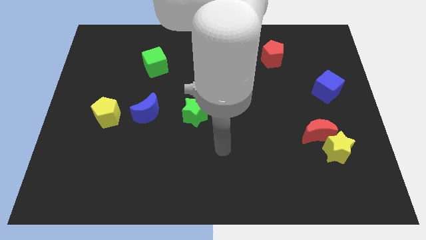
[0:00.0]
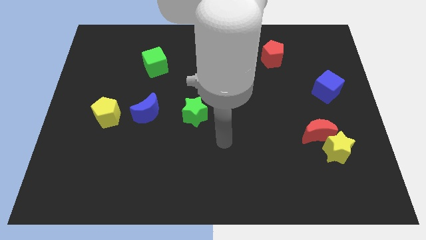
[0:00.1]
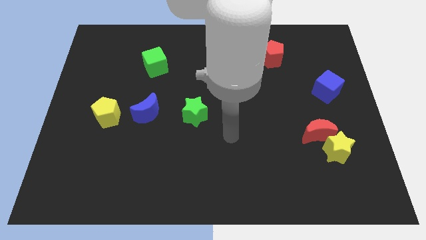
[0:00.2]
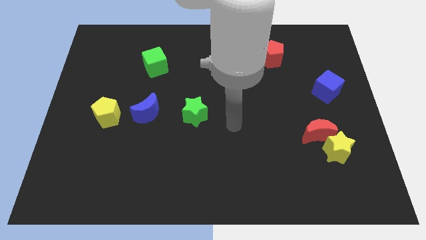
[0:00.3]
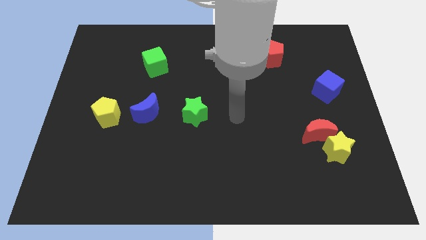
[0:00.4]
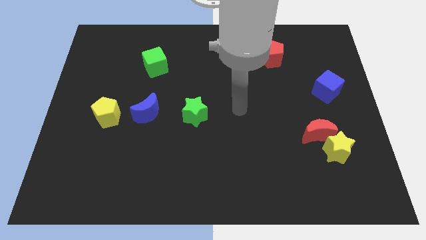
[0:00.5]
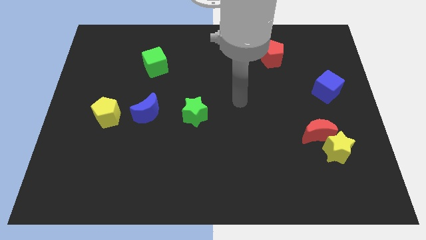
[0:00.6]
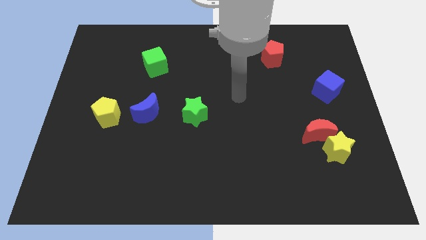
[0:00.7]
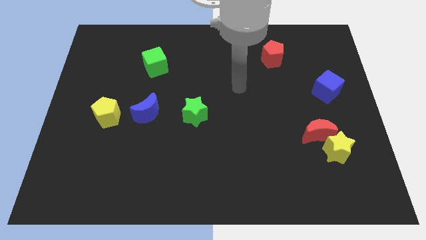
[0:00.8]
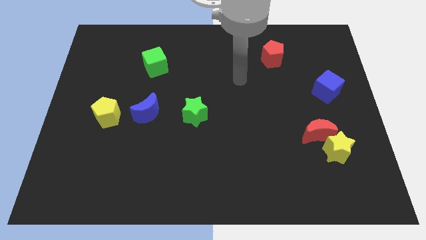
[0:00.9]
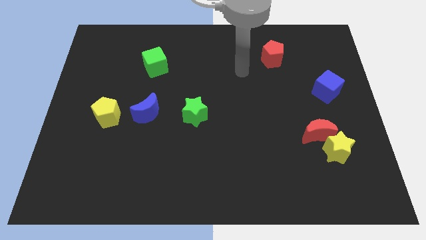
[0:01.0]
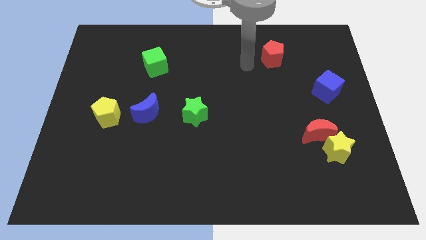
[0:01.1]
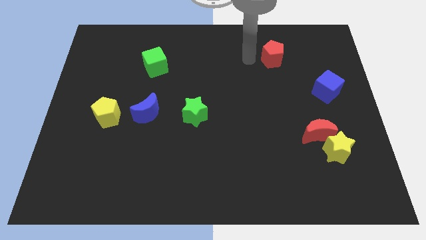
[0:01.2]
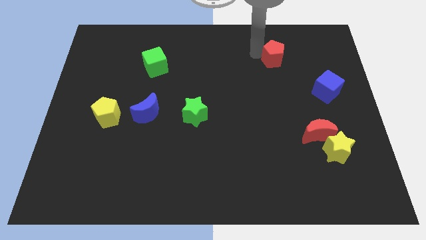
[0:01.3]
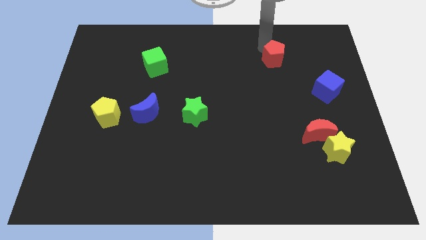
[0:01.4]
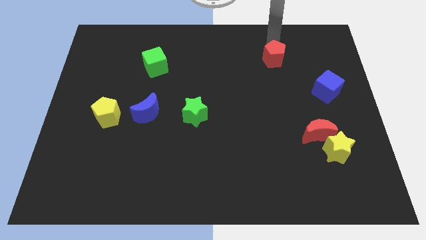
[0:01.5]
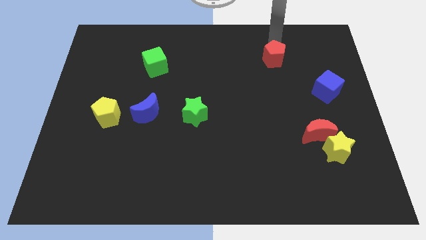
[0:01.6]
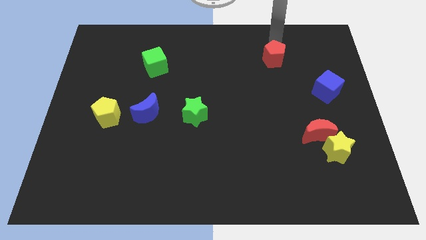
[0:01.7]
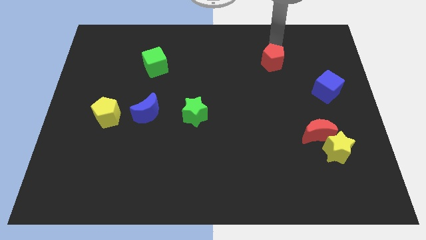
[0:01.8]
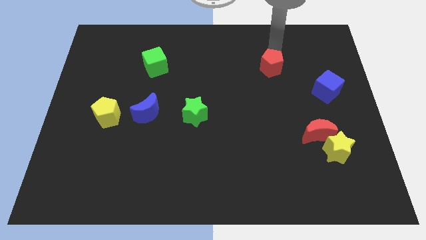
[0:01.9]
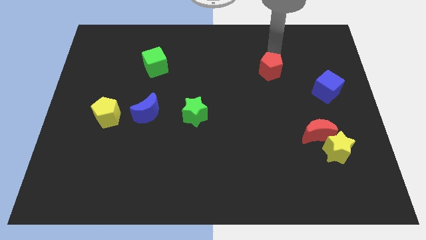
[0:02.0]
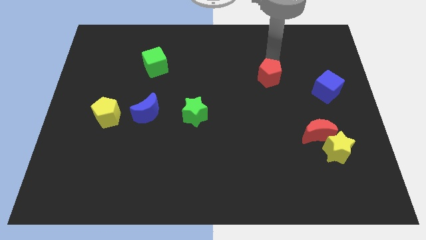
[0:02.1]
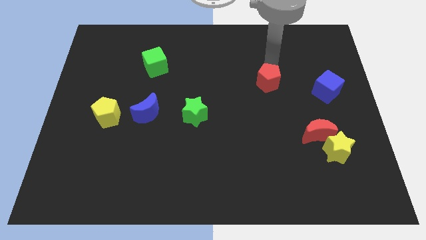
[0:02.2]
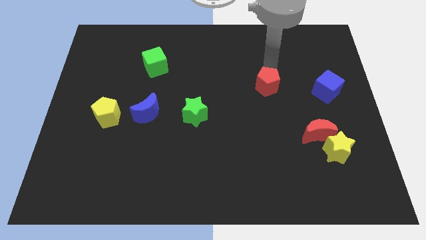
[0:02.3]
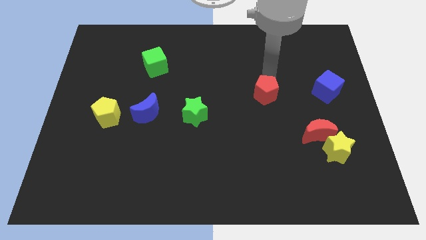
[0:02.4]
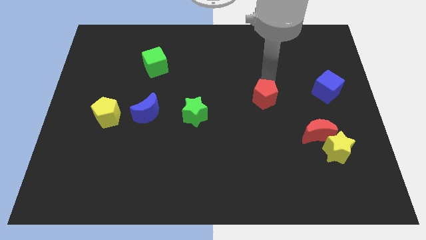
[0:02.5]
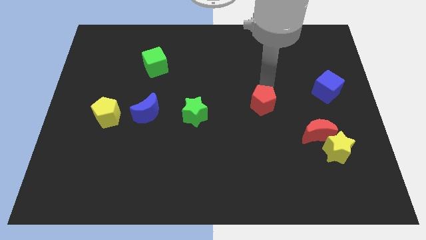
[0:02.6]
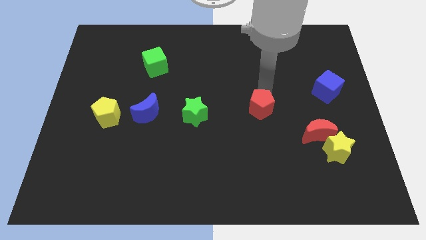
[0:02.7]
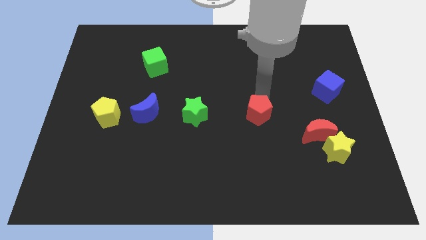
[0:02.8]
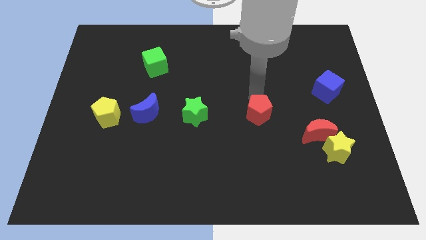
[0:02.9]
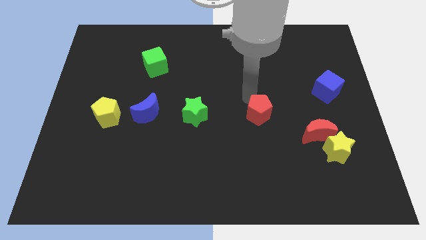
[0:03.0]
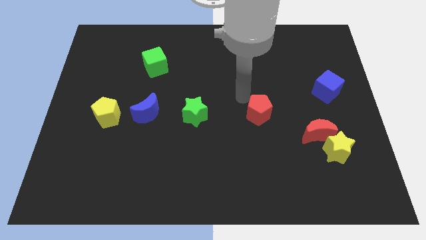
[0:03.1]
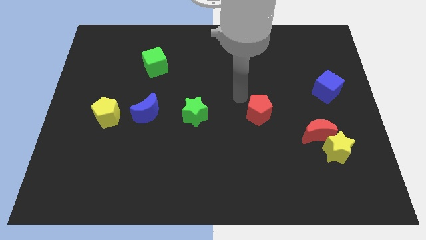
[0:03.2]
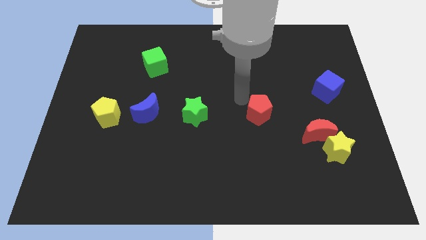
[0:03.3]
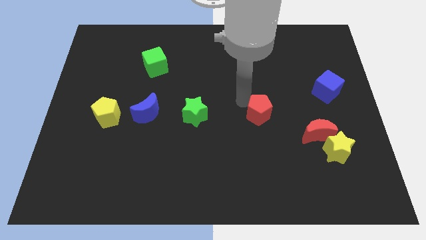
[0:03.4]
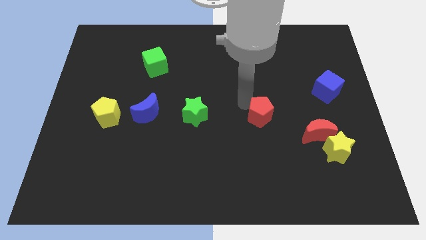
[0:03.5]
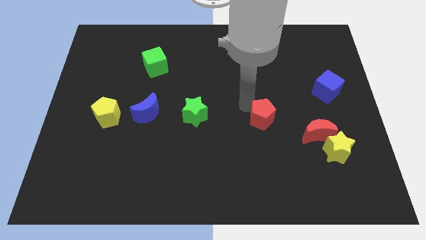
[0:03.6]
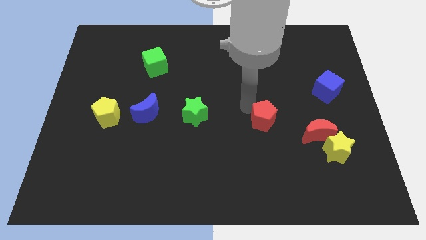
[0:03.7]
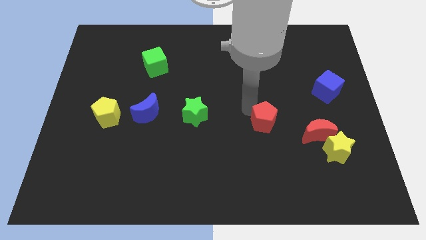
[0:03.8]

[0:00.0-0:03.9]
push the red pentagon downwards

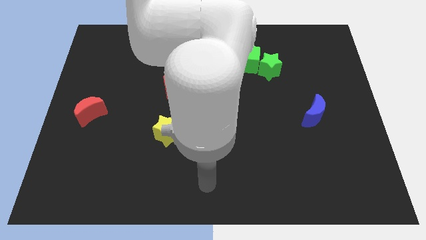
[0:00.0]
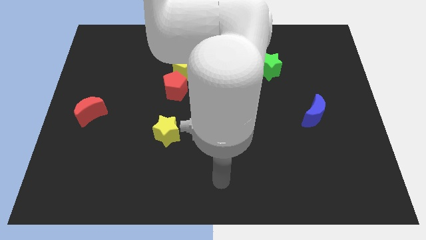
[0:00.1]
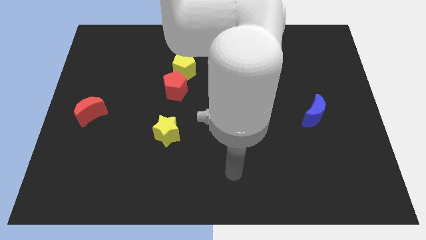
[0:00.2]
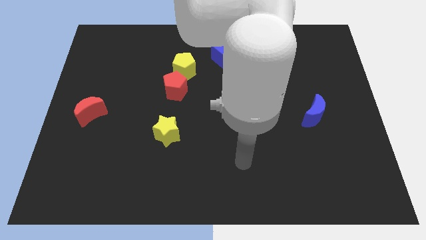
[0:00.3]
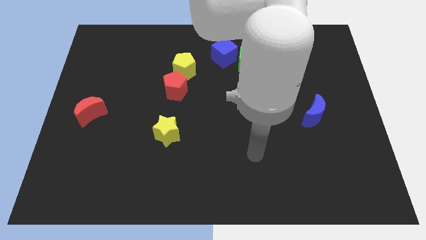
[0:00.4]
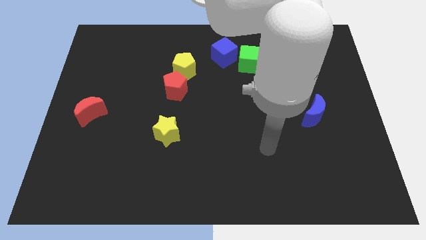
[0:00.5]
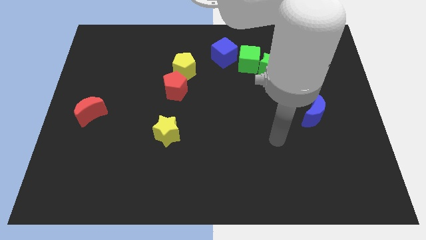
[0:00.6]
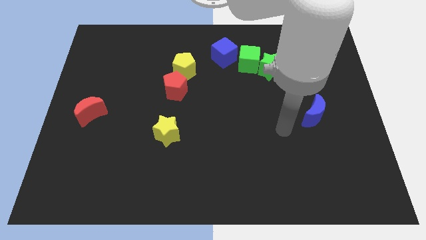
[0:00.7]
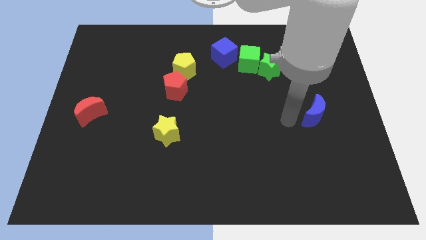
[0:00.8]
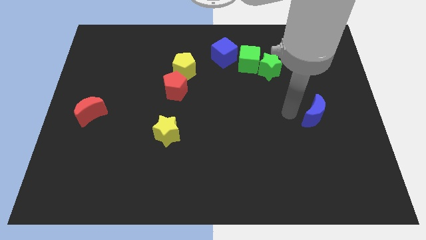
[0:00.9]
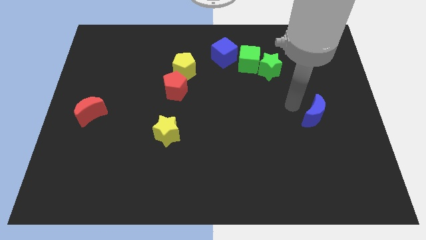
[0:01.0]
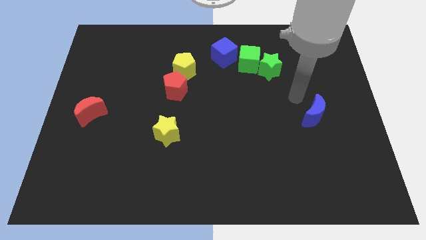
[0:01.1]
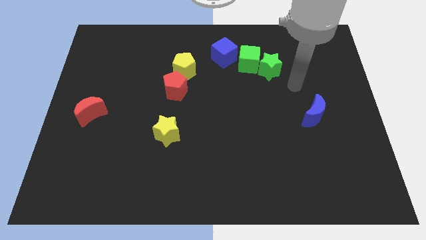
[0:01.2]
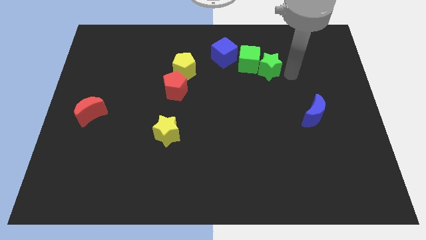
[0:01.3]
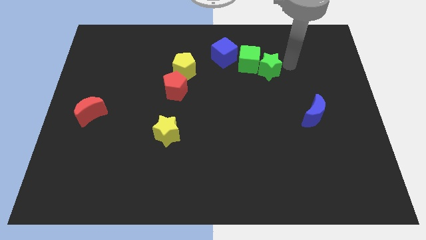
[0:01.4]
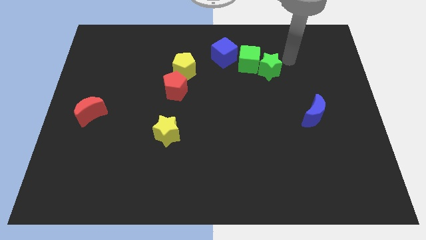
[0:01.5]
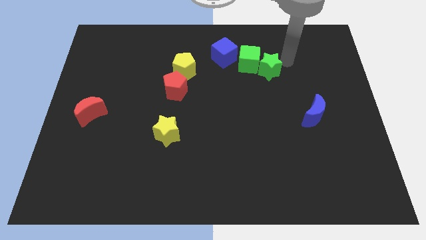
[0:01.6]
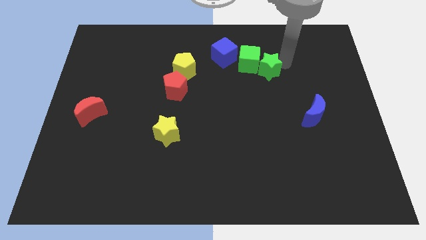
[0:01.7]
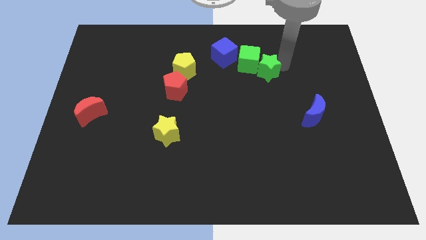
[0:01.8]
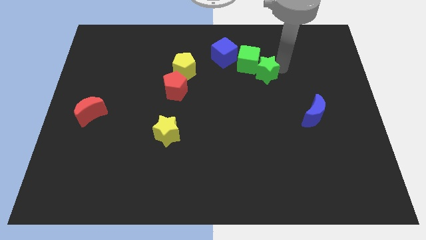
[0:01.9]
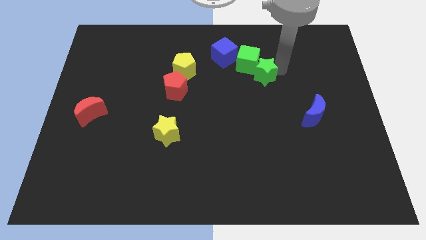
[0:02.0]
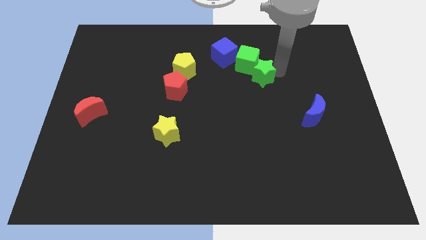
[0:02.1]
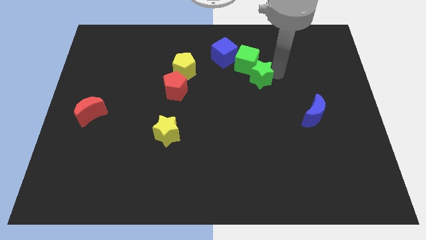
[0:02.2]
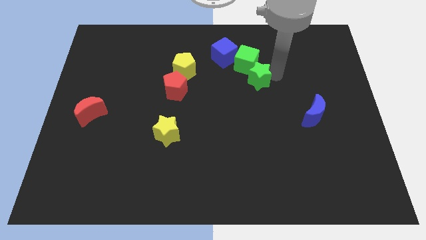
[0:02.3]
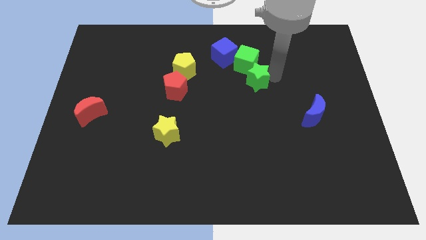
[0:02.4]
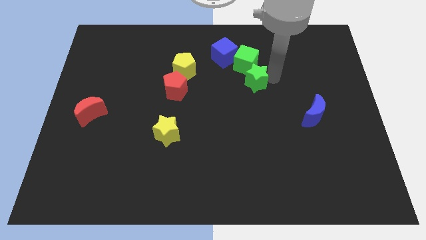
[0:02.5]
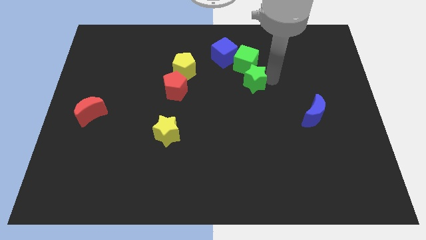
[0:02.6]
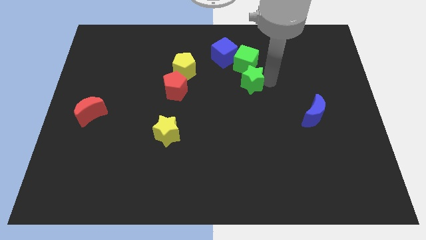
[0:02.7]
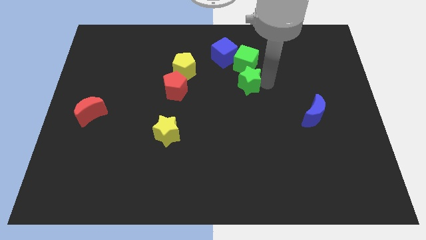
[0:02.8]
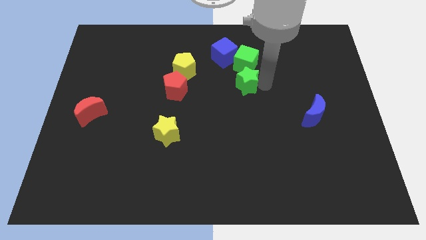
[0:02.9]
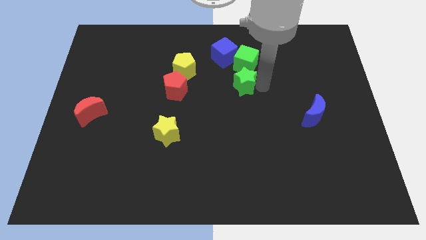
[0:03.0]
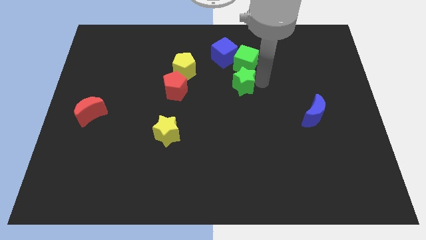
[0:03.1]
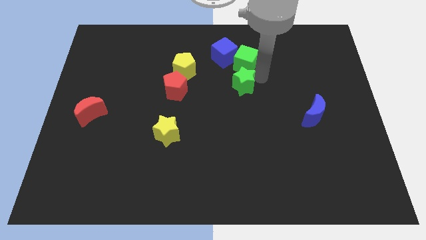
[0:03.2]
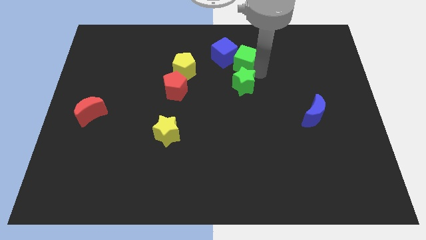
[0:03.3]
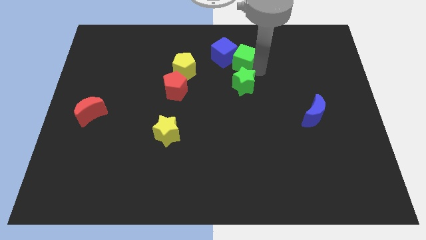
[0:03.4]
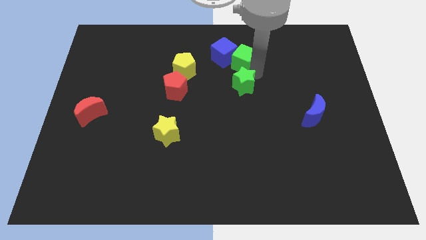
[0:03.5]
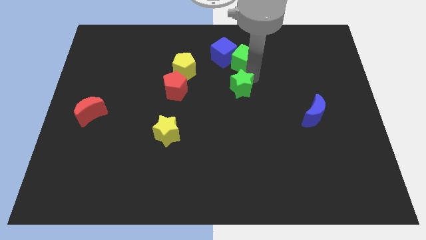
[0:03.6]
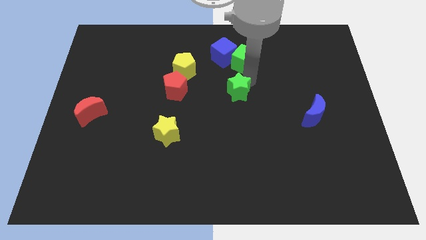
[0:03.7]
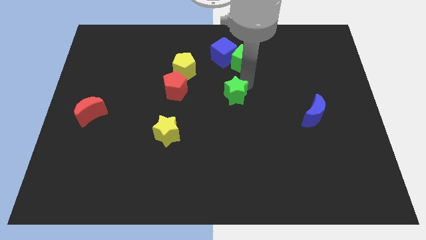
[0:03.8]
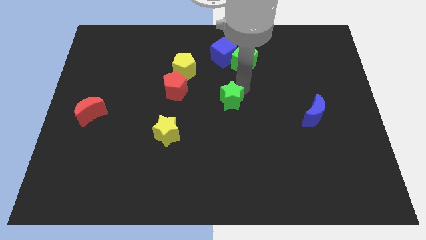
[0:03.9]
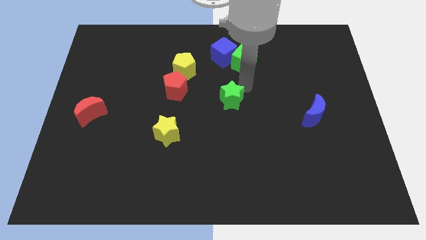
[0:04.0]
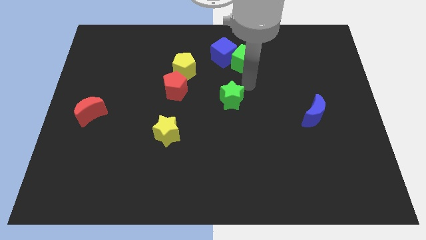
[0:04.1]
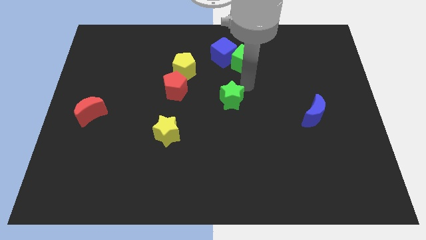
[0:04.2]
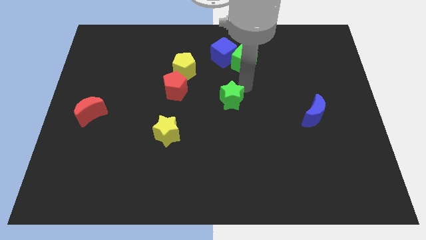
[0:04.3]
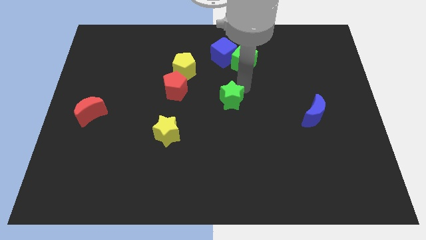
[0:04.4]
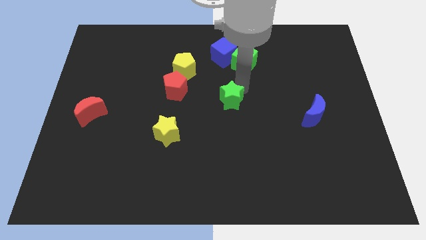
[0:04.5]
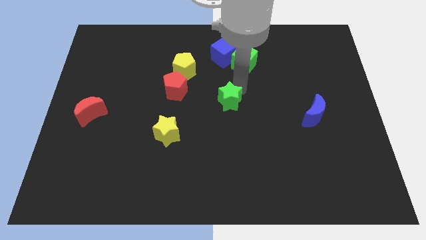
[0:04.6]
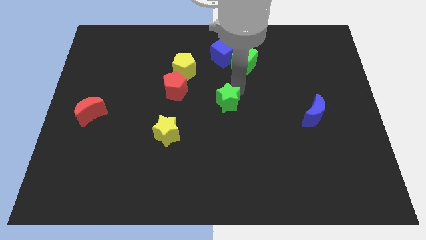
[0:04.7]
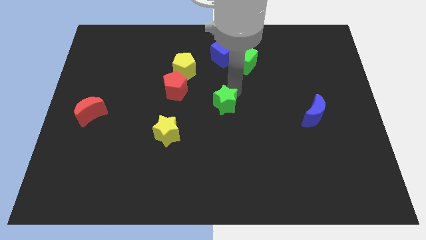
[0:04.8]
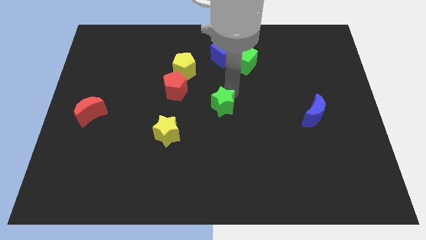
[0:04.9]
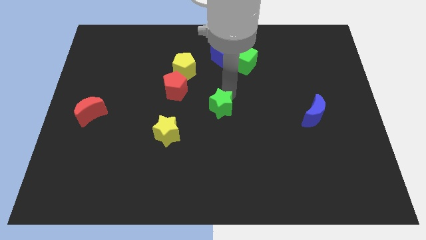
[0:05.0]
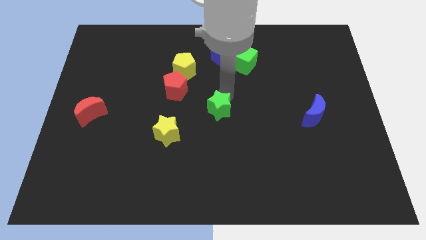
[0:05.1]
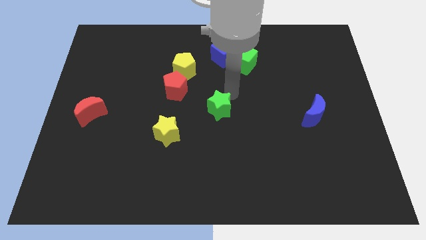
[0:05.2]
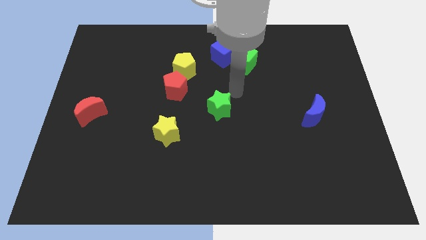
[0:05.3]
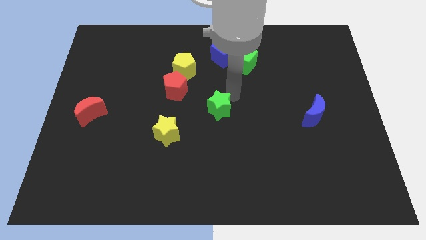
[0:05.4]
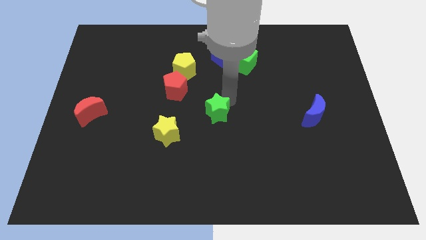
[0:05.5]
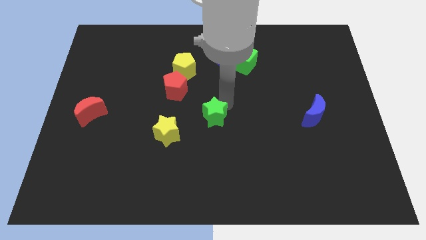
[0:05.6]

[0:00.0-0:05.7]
push the green star downwards and then to the left
